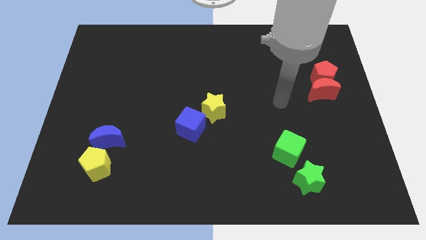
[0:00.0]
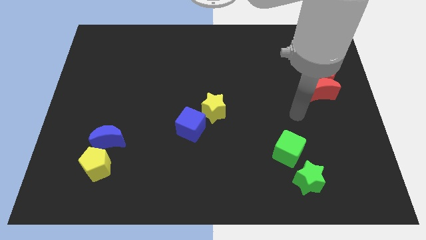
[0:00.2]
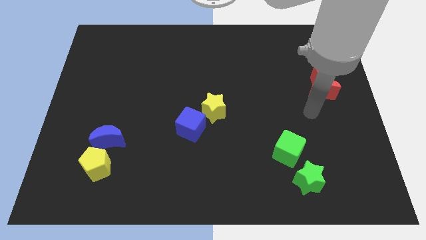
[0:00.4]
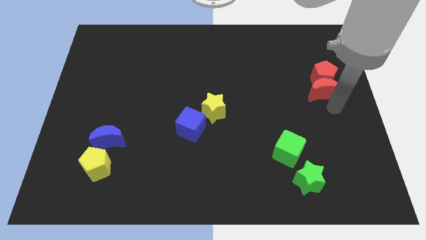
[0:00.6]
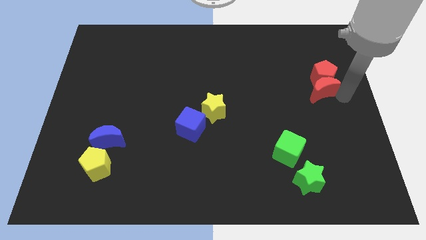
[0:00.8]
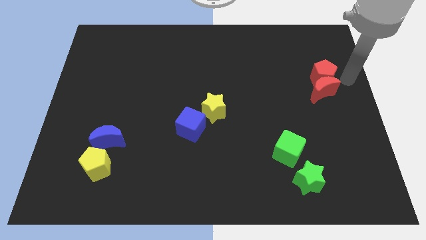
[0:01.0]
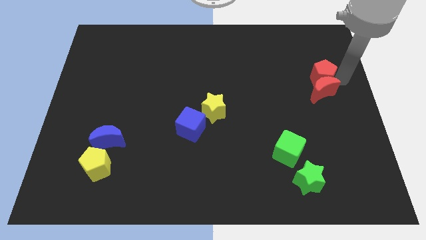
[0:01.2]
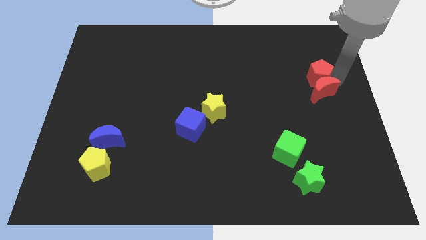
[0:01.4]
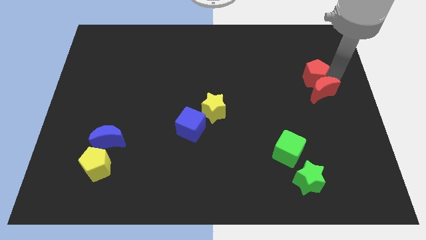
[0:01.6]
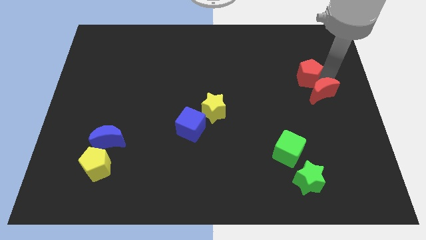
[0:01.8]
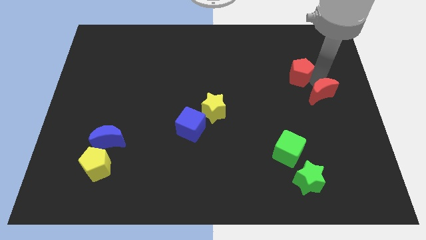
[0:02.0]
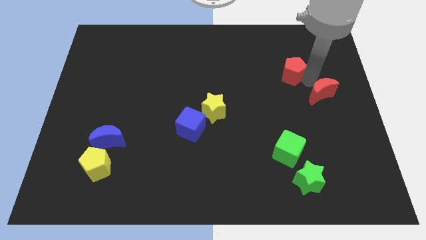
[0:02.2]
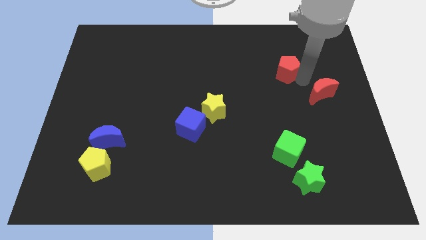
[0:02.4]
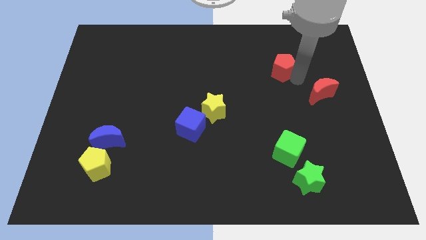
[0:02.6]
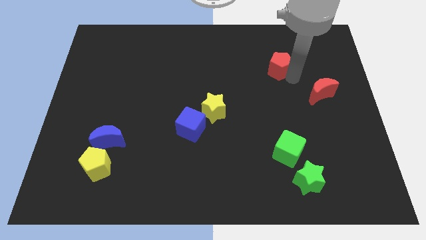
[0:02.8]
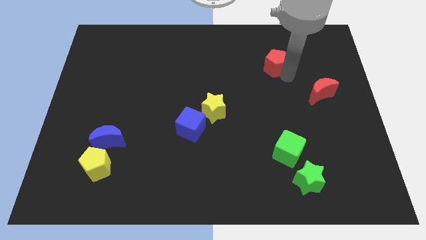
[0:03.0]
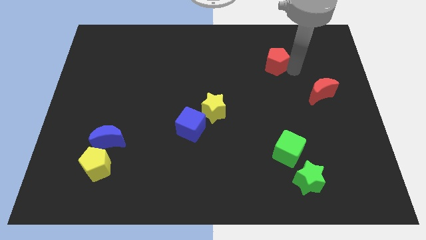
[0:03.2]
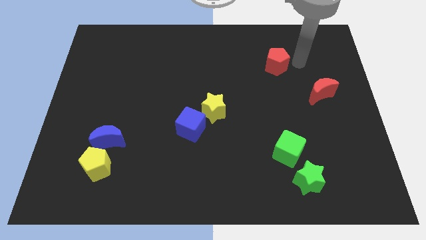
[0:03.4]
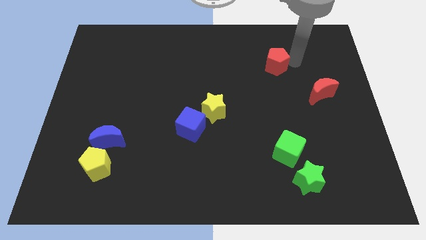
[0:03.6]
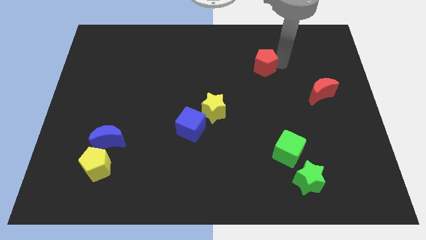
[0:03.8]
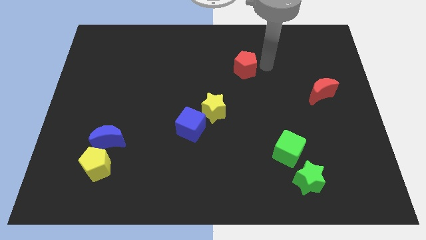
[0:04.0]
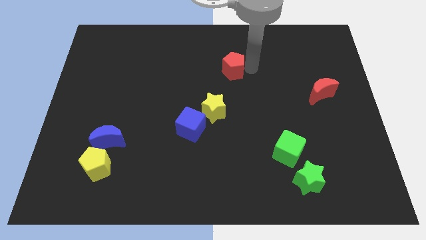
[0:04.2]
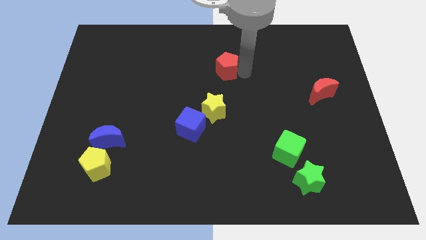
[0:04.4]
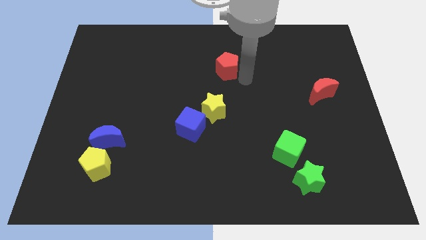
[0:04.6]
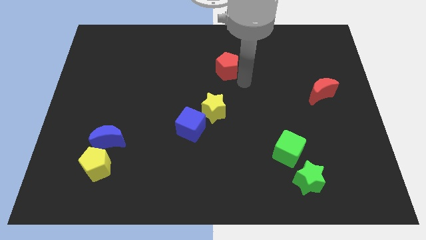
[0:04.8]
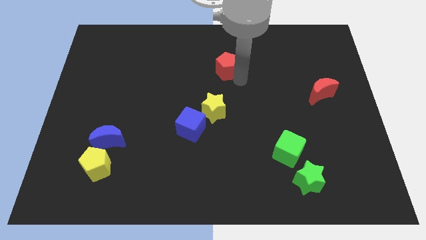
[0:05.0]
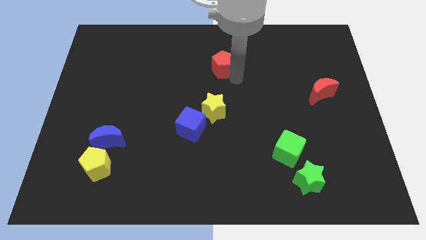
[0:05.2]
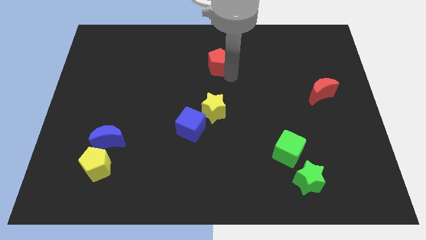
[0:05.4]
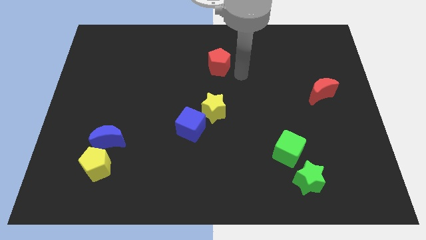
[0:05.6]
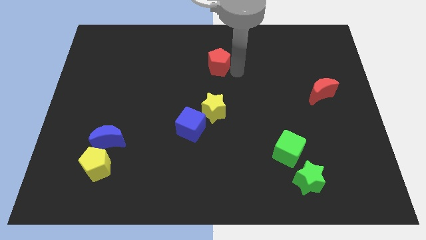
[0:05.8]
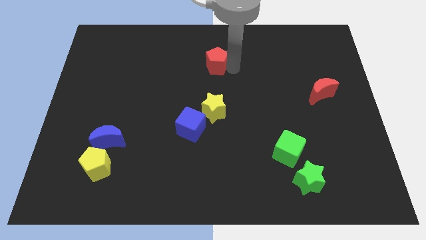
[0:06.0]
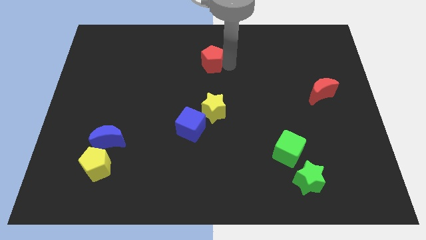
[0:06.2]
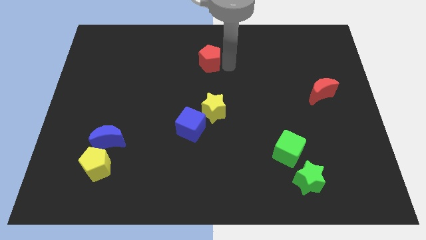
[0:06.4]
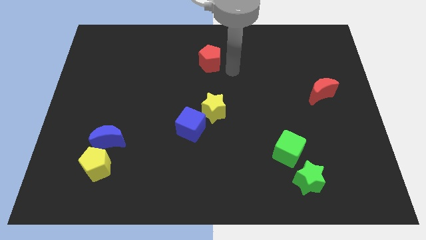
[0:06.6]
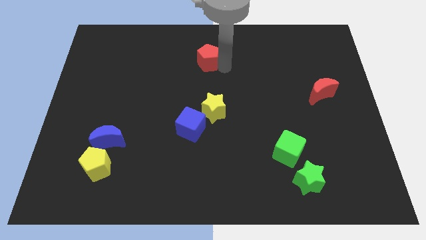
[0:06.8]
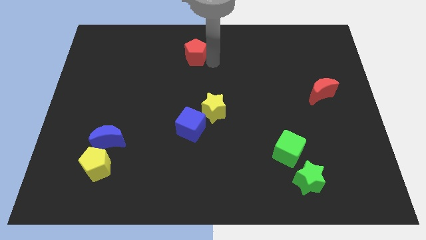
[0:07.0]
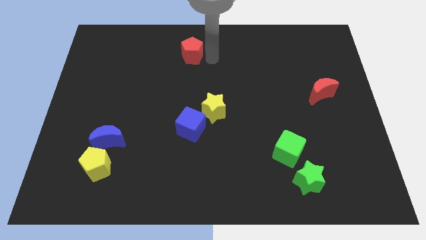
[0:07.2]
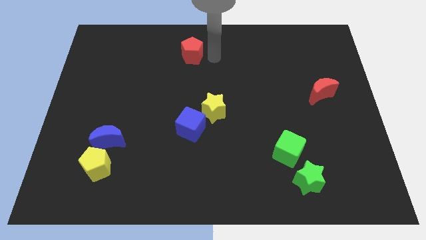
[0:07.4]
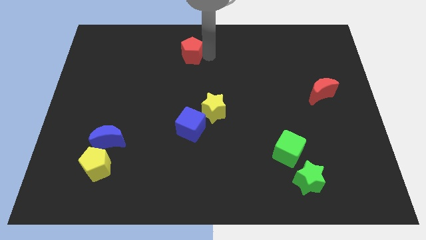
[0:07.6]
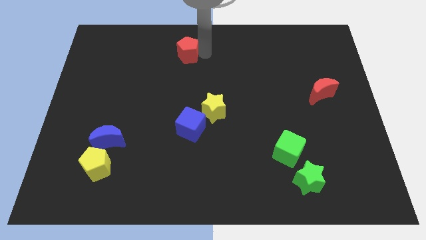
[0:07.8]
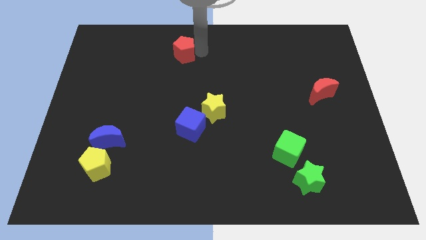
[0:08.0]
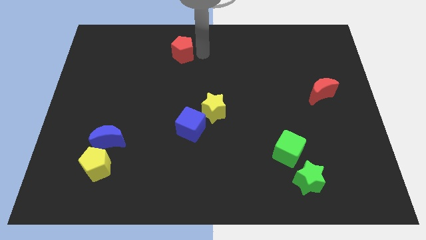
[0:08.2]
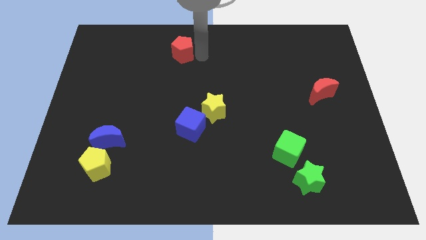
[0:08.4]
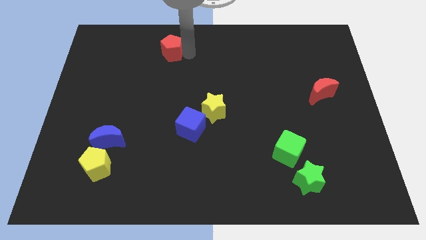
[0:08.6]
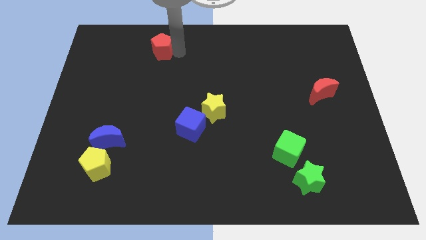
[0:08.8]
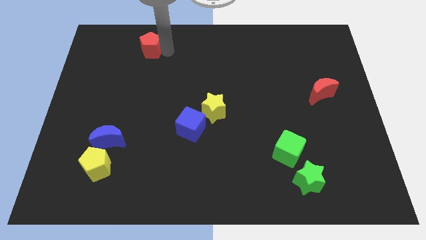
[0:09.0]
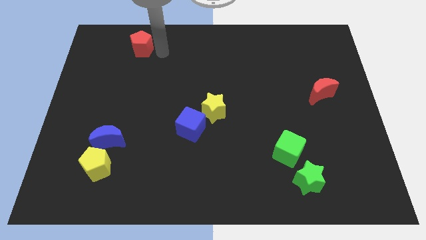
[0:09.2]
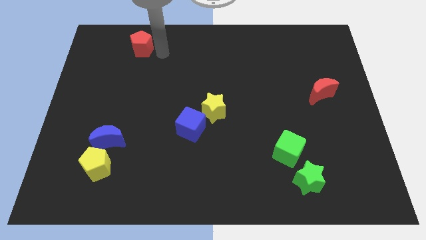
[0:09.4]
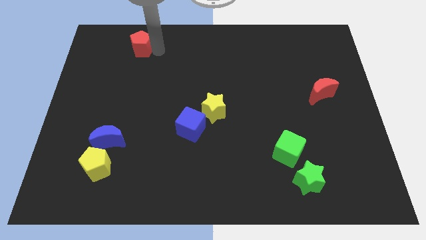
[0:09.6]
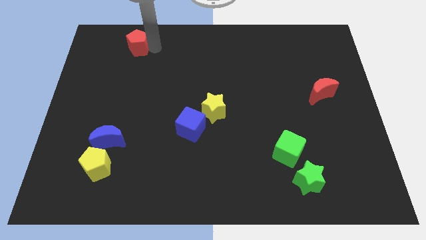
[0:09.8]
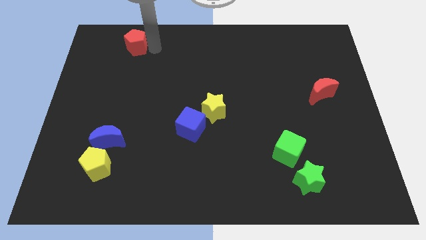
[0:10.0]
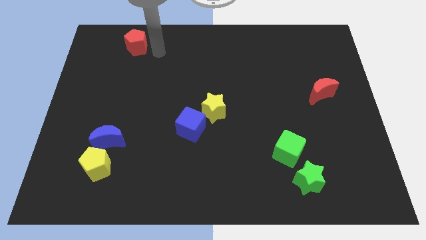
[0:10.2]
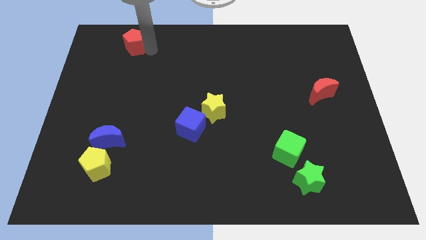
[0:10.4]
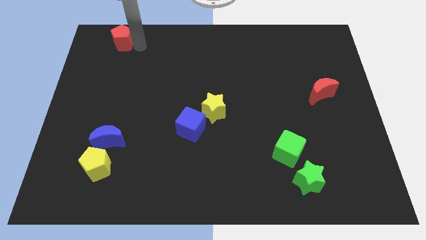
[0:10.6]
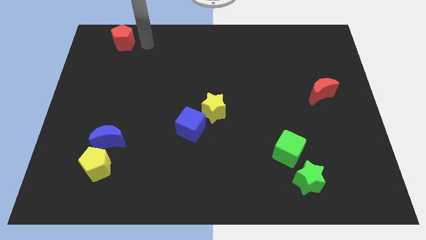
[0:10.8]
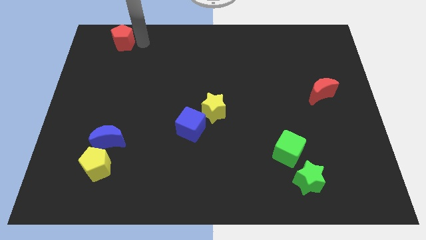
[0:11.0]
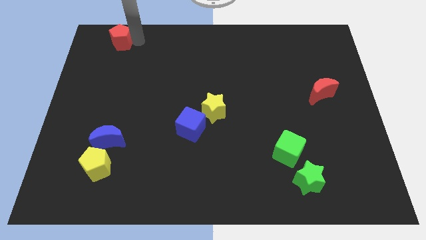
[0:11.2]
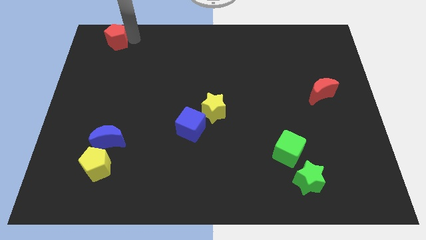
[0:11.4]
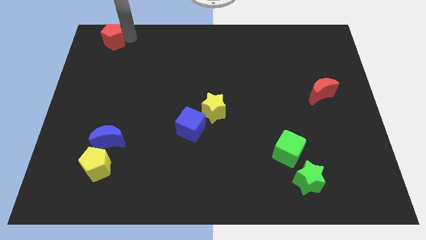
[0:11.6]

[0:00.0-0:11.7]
push the red pentagon to the top left of the board

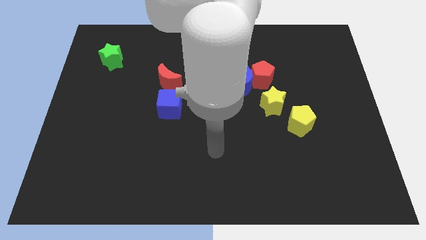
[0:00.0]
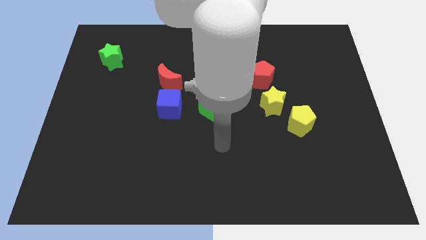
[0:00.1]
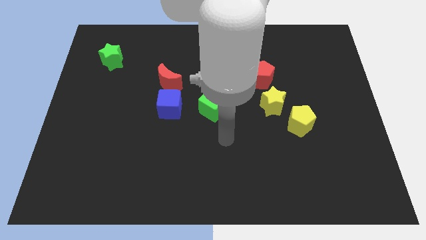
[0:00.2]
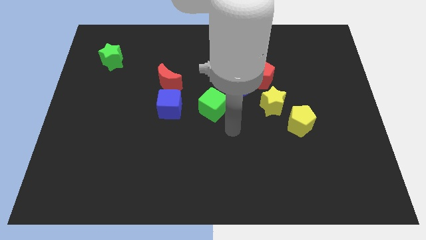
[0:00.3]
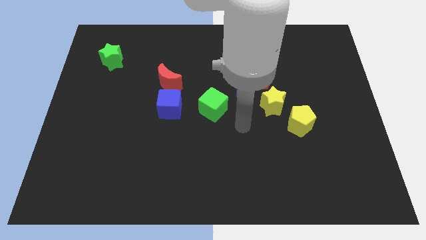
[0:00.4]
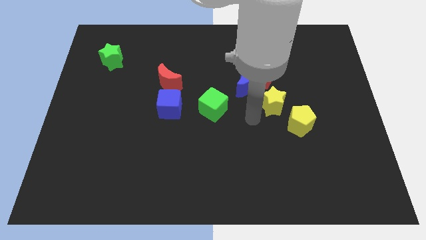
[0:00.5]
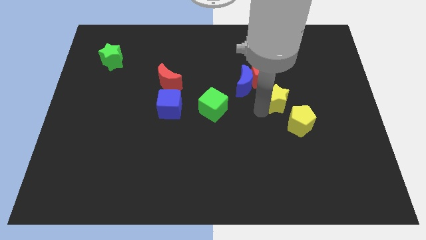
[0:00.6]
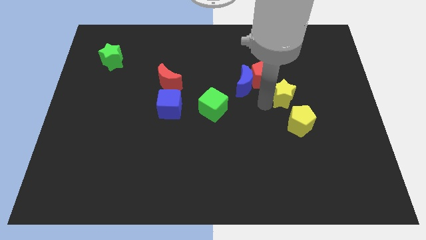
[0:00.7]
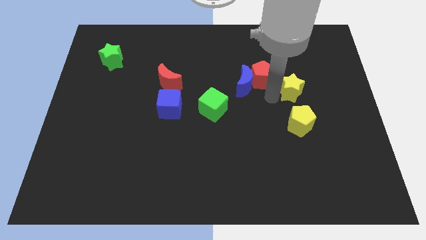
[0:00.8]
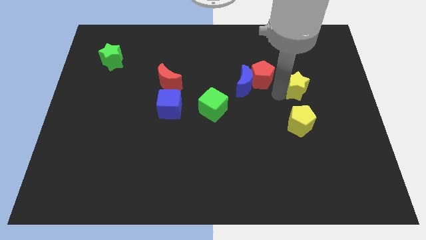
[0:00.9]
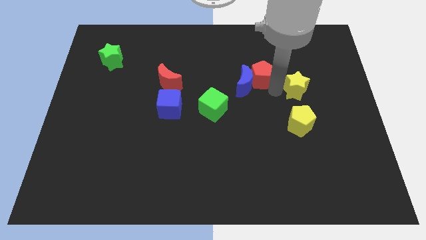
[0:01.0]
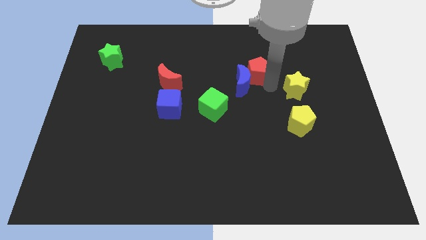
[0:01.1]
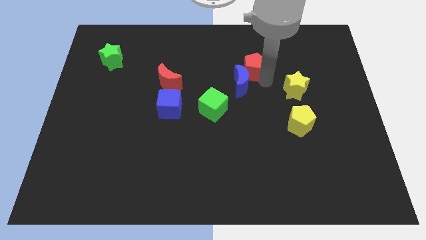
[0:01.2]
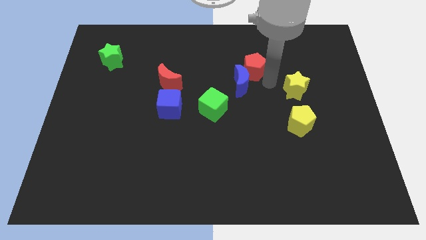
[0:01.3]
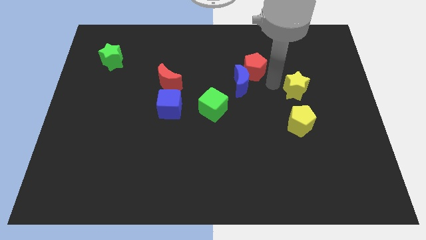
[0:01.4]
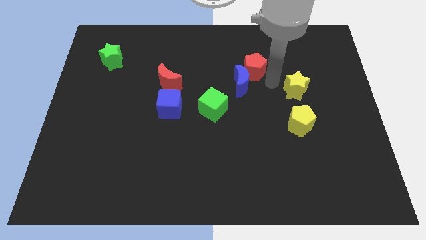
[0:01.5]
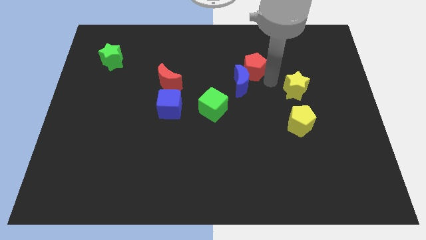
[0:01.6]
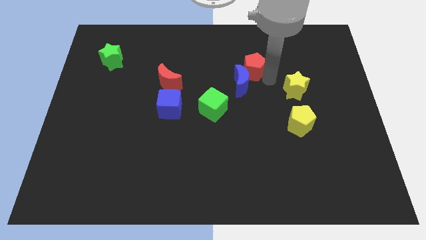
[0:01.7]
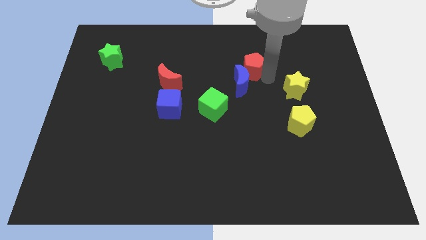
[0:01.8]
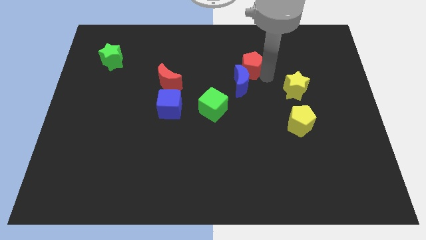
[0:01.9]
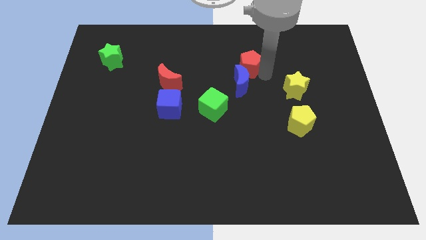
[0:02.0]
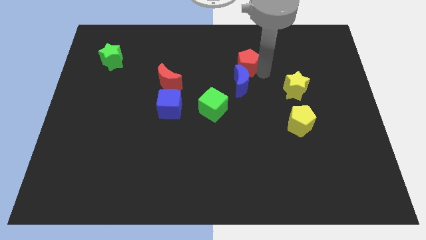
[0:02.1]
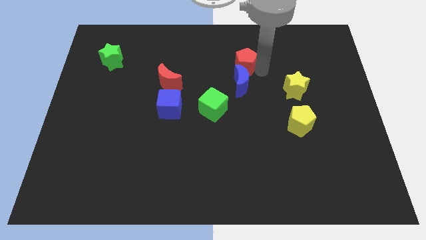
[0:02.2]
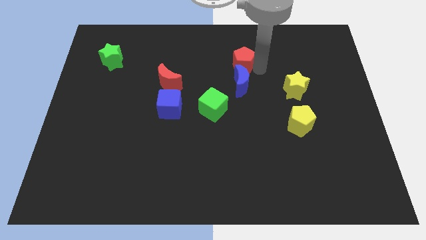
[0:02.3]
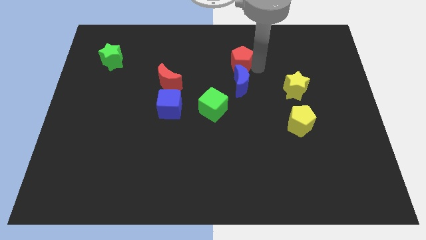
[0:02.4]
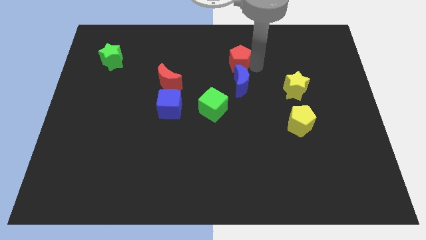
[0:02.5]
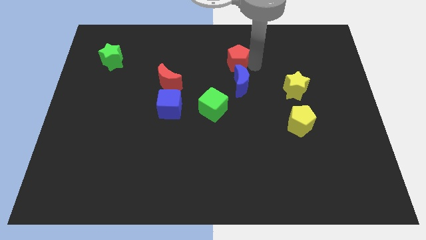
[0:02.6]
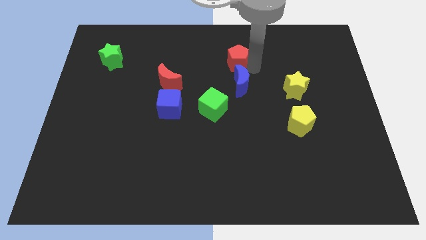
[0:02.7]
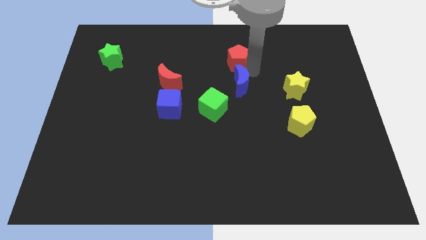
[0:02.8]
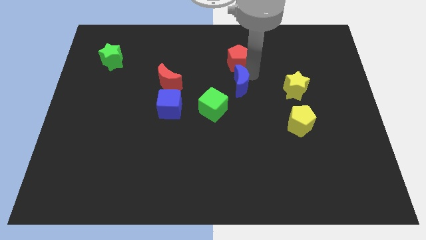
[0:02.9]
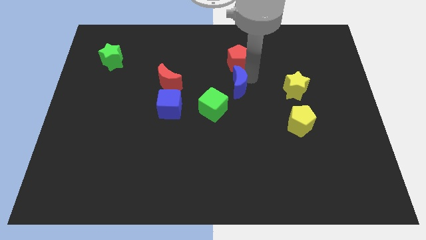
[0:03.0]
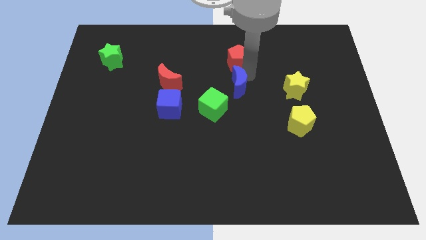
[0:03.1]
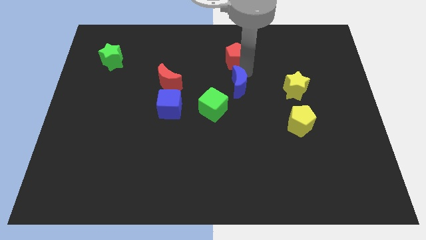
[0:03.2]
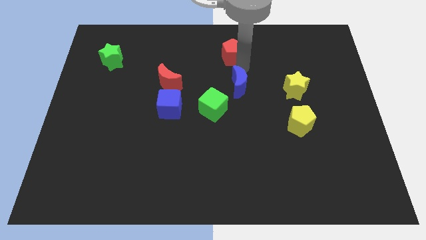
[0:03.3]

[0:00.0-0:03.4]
push the red pentagon to the top
